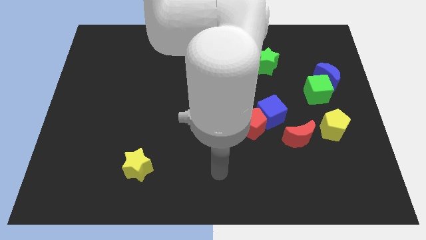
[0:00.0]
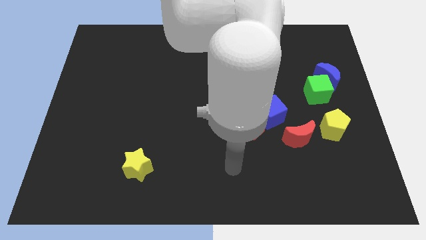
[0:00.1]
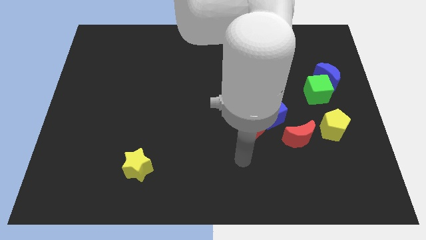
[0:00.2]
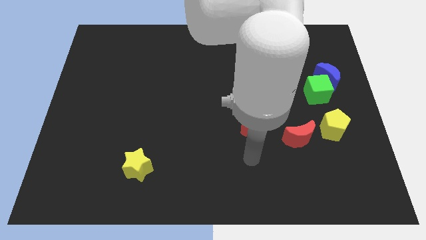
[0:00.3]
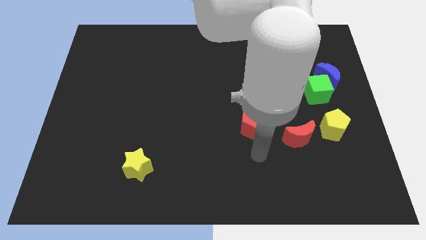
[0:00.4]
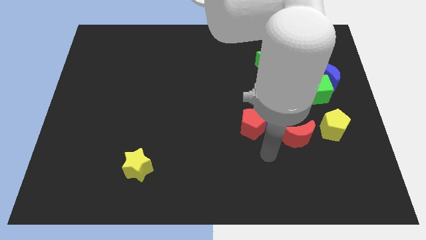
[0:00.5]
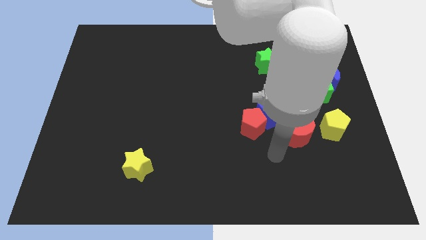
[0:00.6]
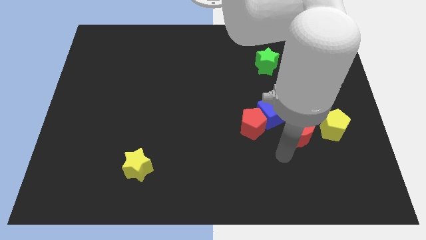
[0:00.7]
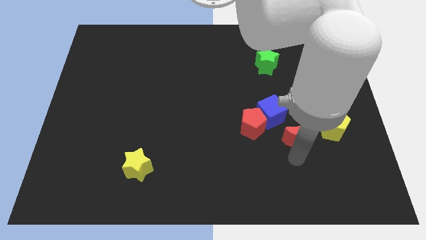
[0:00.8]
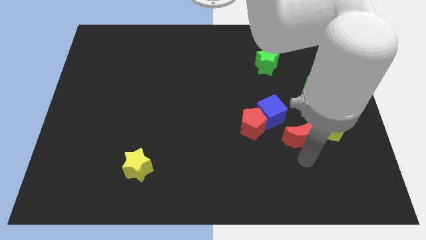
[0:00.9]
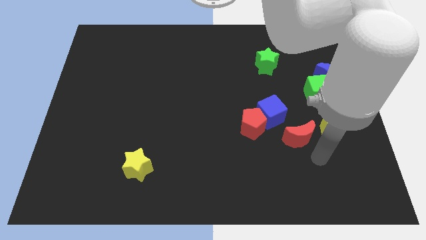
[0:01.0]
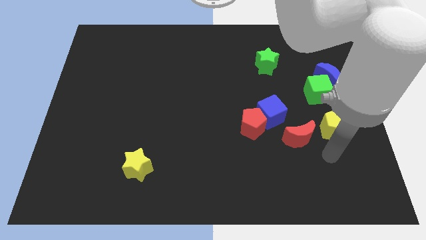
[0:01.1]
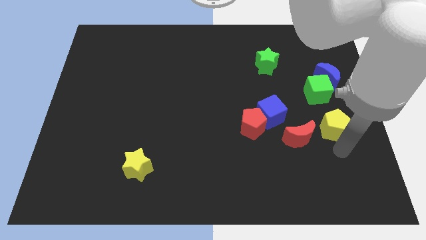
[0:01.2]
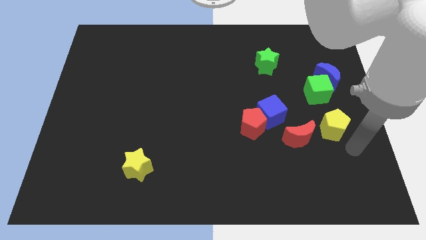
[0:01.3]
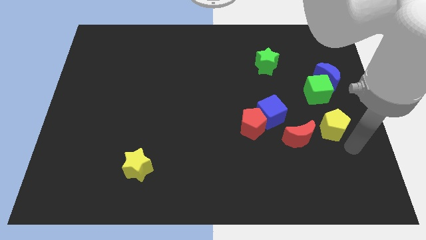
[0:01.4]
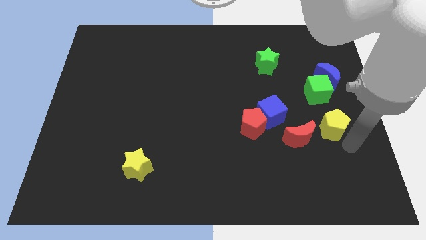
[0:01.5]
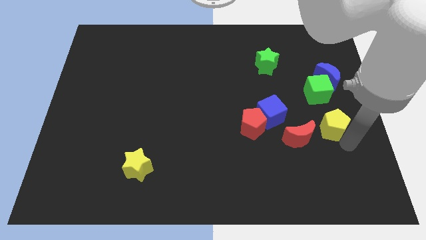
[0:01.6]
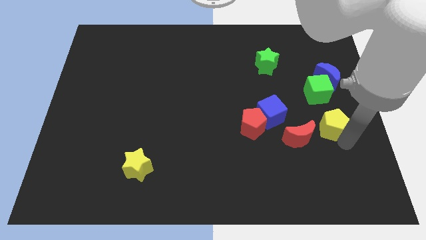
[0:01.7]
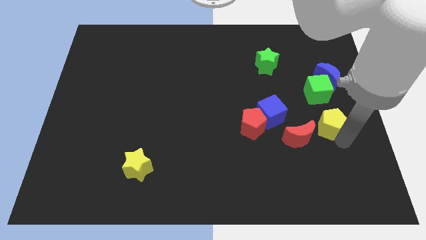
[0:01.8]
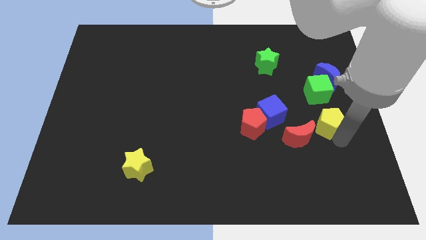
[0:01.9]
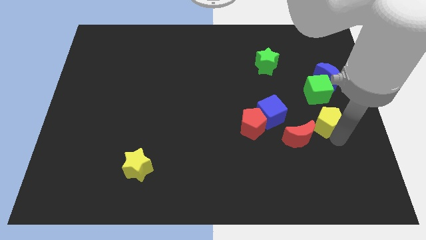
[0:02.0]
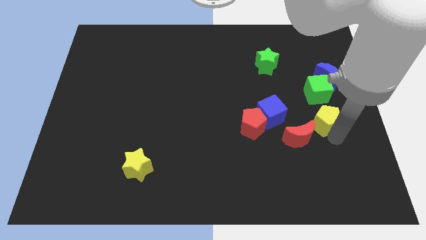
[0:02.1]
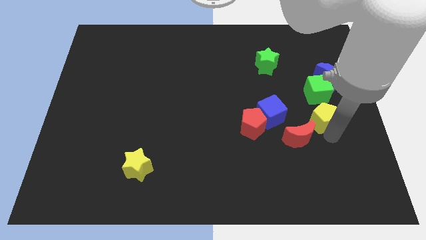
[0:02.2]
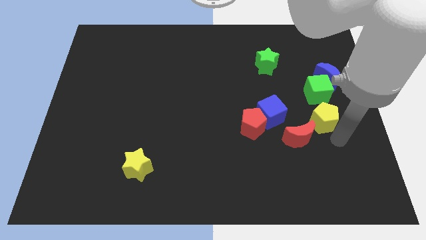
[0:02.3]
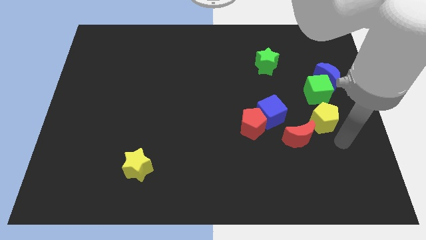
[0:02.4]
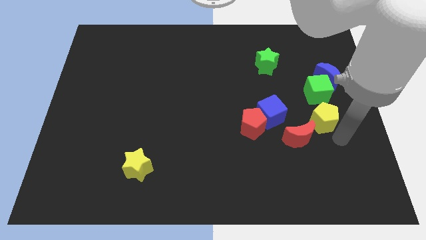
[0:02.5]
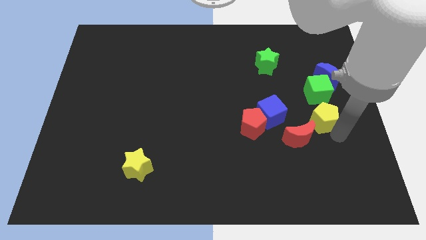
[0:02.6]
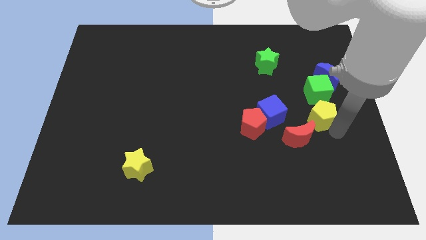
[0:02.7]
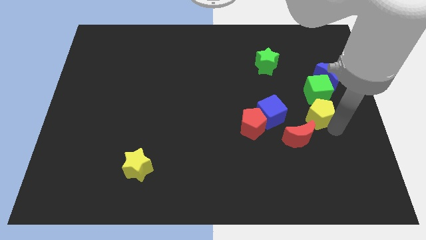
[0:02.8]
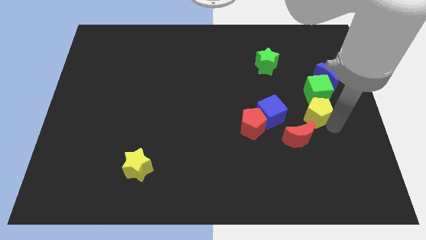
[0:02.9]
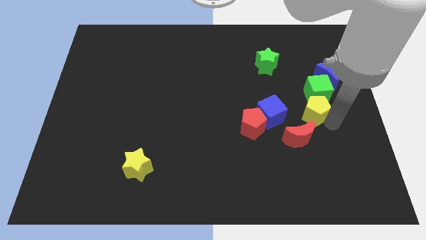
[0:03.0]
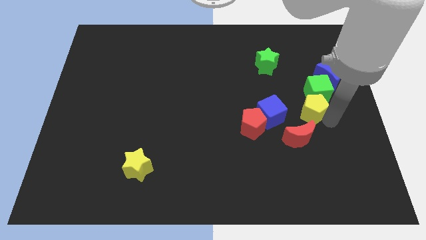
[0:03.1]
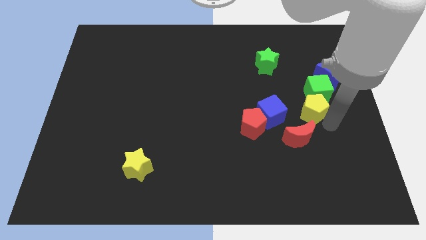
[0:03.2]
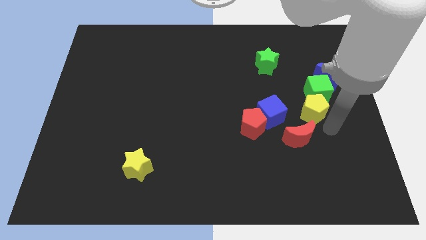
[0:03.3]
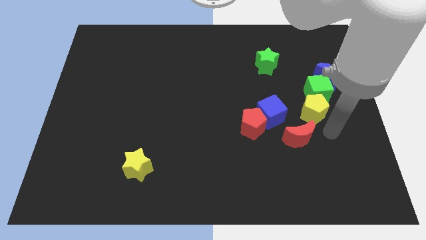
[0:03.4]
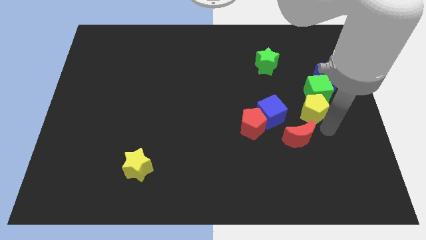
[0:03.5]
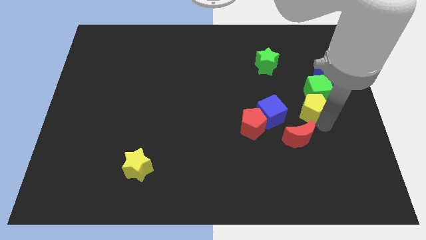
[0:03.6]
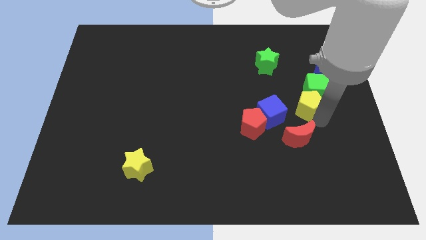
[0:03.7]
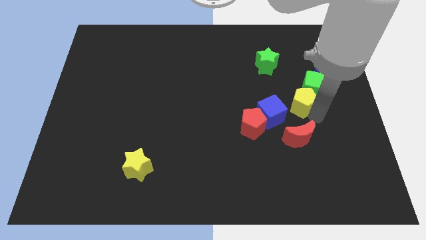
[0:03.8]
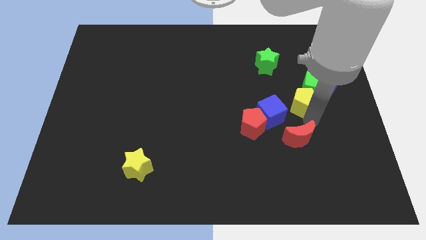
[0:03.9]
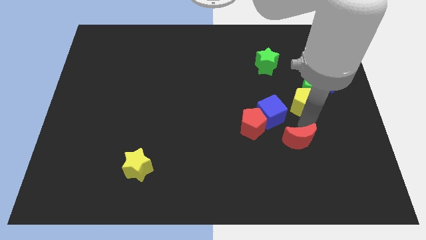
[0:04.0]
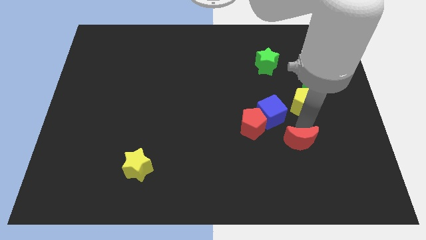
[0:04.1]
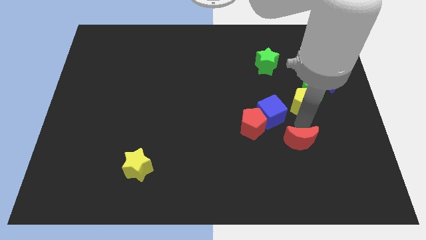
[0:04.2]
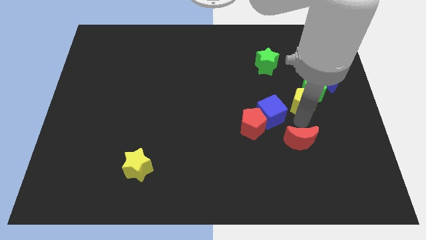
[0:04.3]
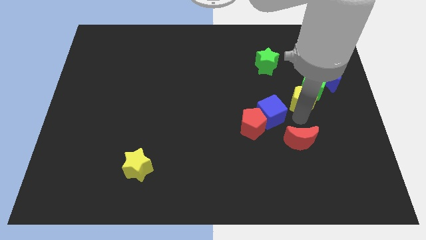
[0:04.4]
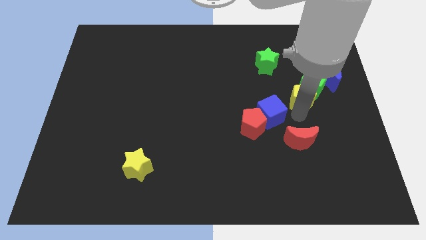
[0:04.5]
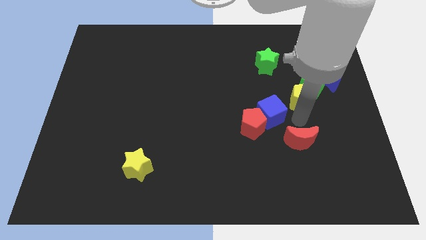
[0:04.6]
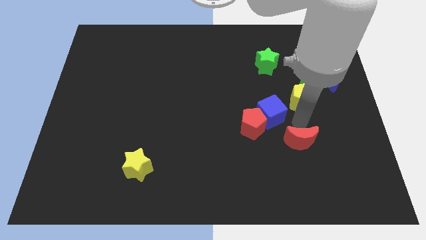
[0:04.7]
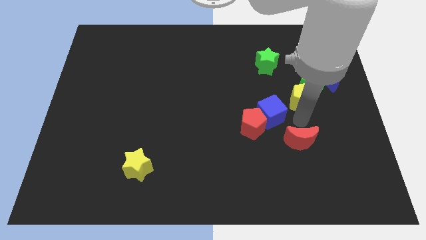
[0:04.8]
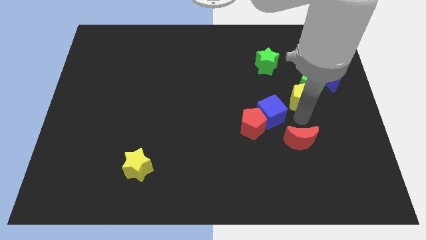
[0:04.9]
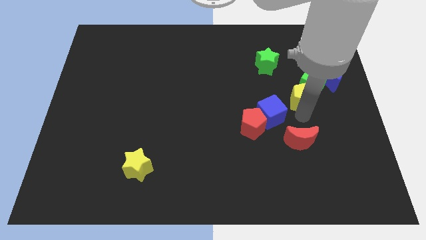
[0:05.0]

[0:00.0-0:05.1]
slightly move the yellow pentagon upwards

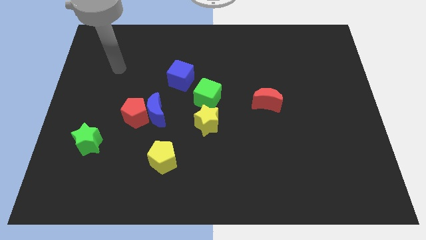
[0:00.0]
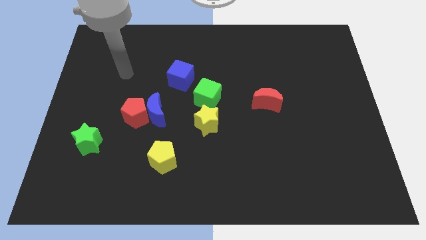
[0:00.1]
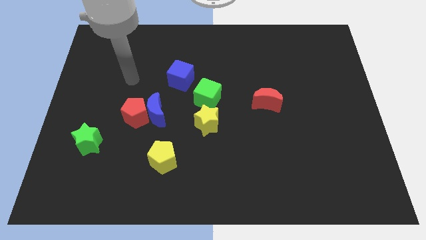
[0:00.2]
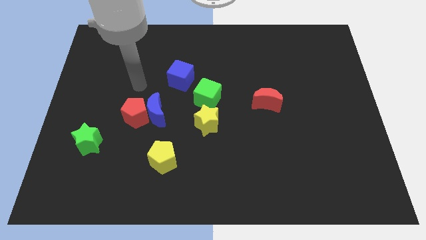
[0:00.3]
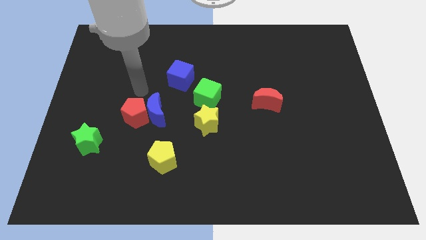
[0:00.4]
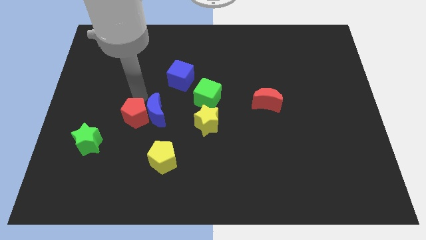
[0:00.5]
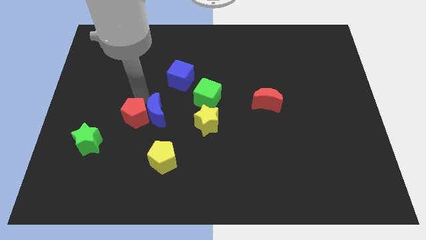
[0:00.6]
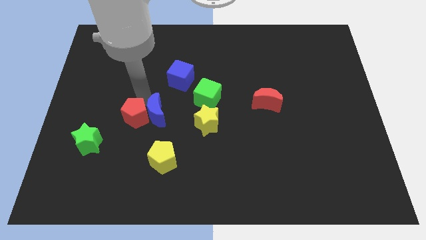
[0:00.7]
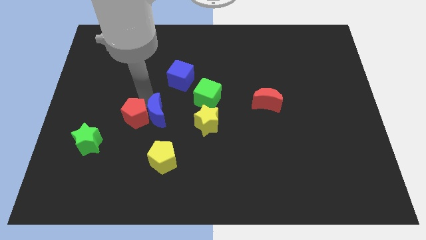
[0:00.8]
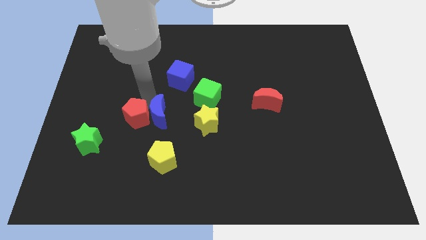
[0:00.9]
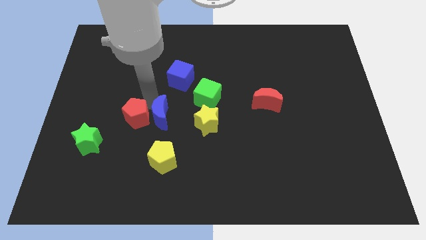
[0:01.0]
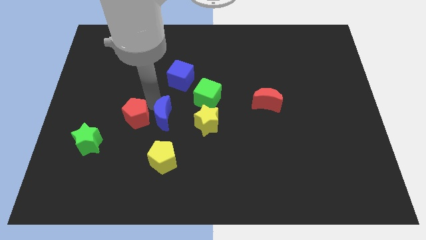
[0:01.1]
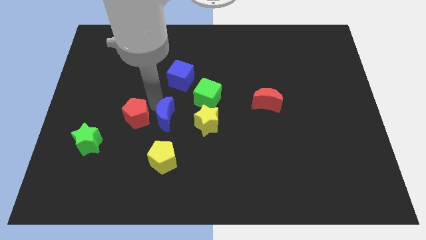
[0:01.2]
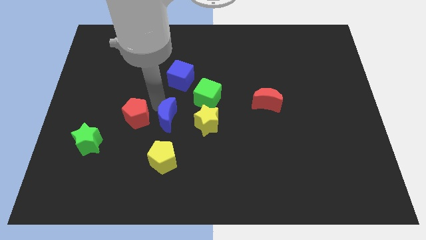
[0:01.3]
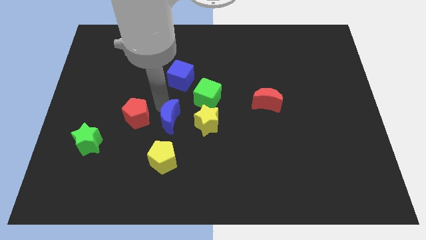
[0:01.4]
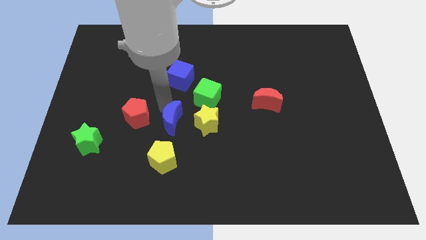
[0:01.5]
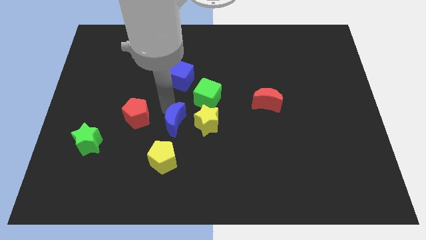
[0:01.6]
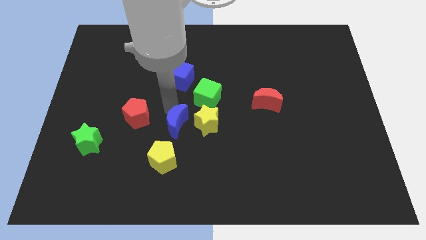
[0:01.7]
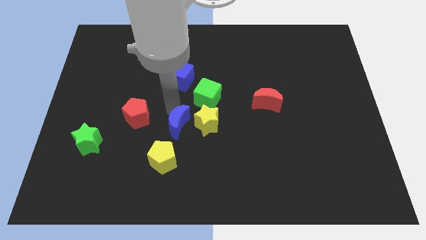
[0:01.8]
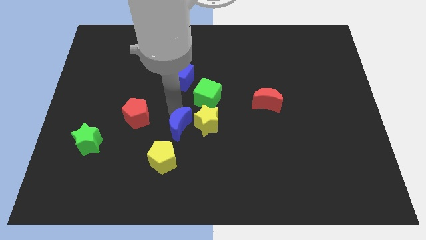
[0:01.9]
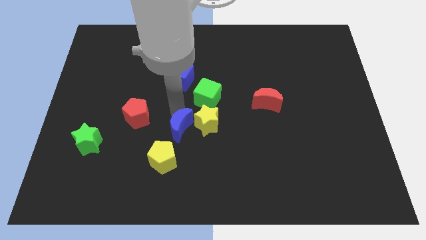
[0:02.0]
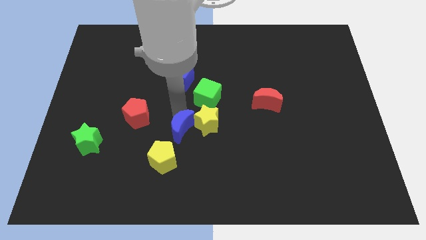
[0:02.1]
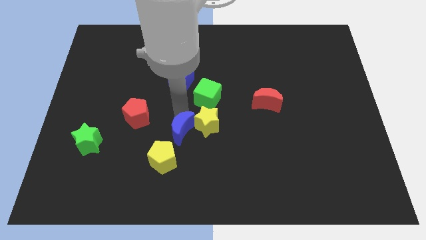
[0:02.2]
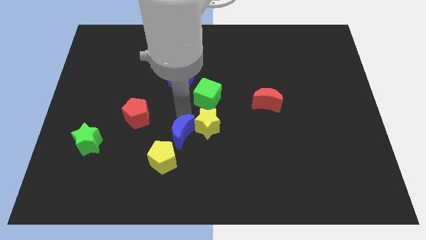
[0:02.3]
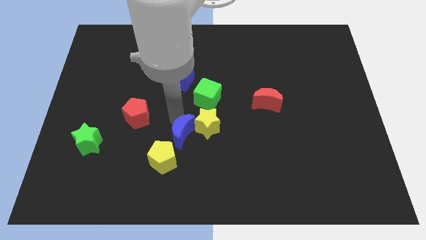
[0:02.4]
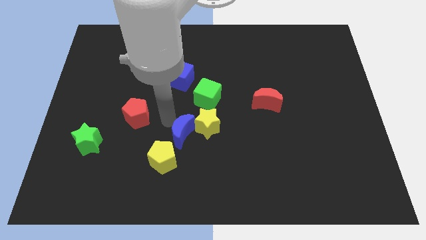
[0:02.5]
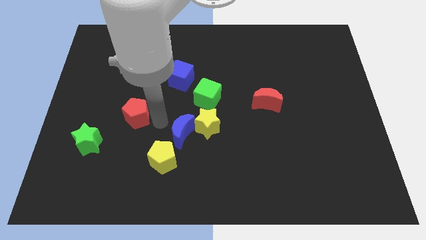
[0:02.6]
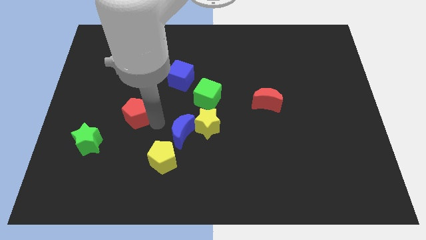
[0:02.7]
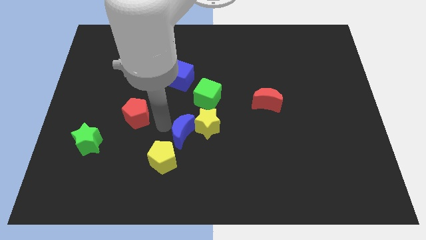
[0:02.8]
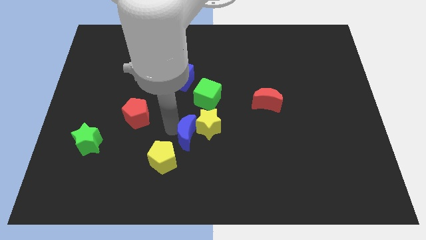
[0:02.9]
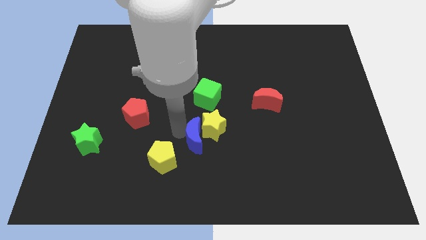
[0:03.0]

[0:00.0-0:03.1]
push the blue moon to the right a bit
